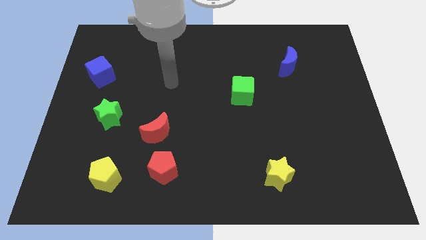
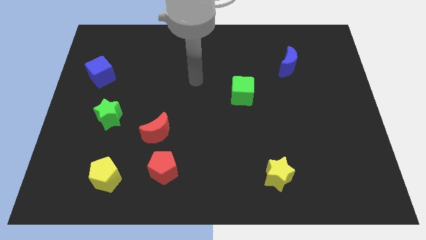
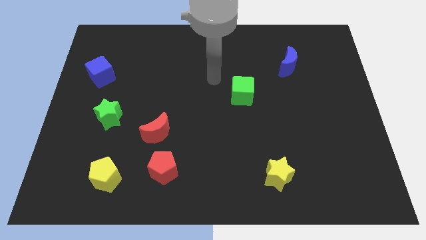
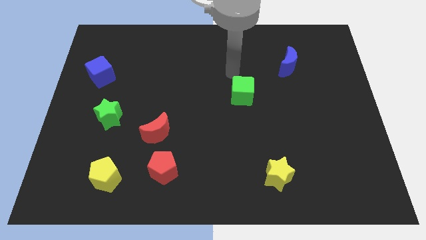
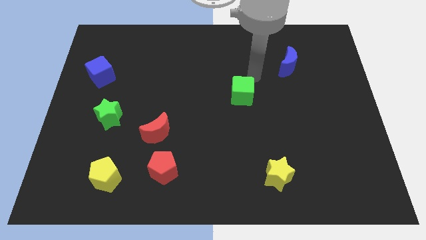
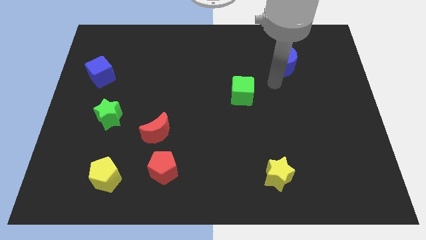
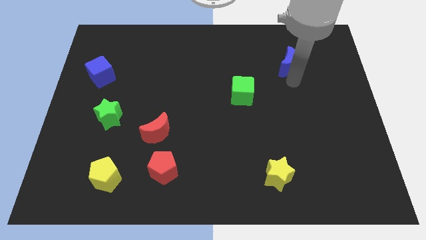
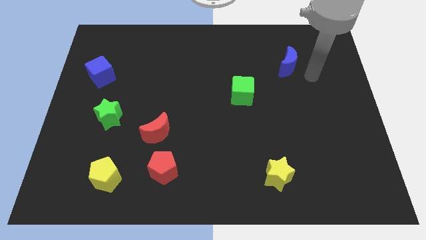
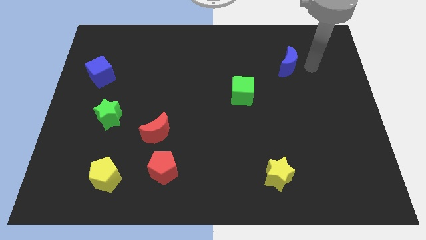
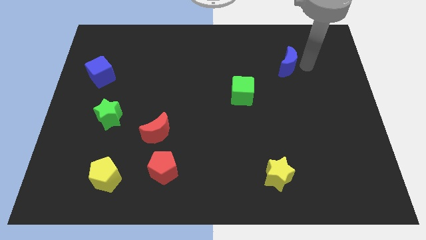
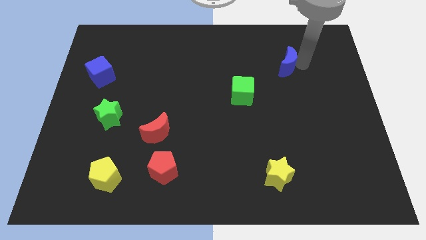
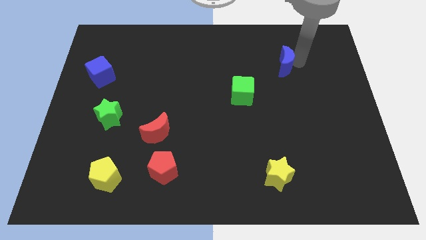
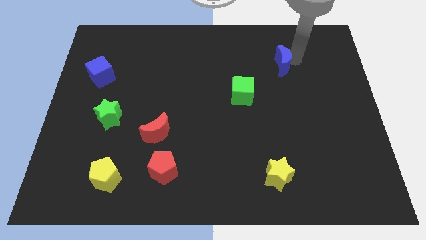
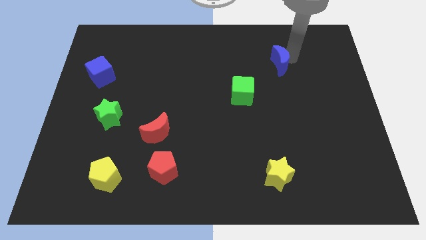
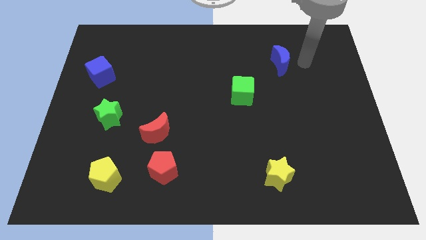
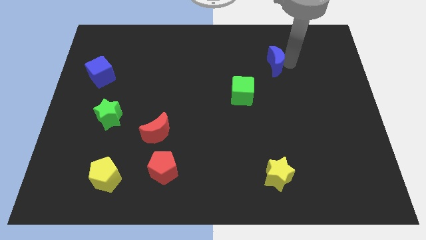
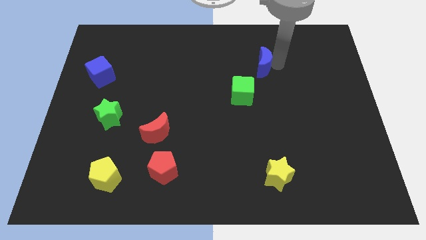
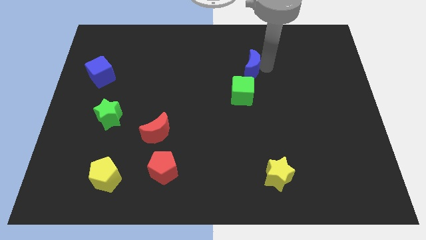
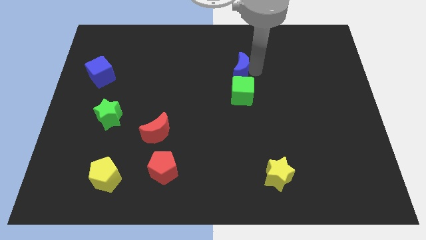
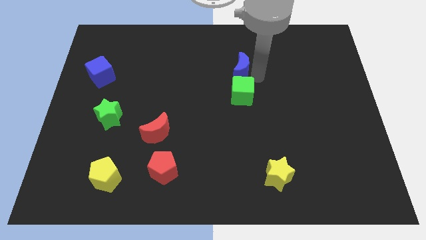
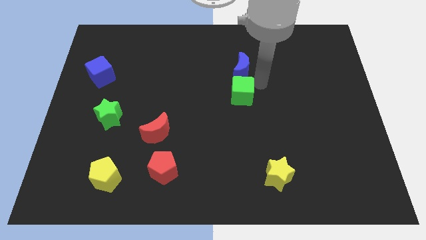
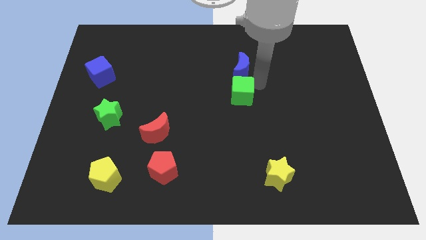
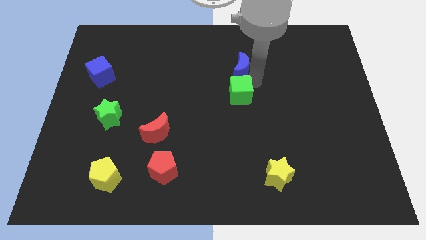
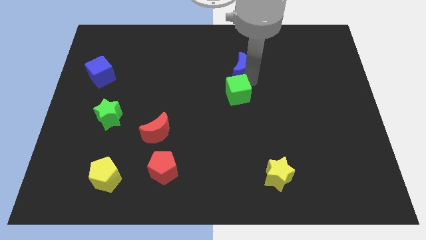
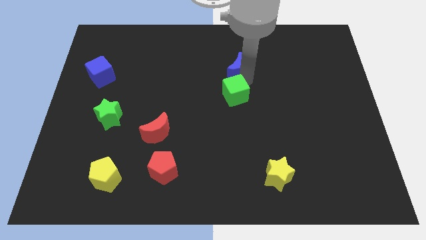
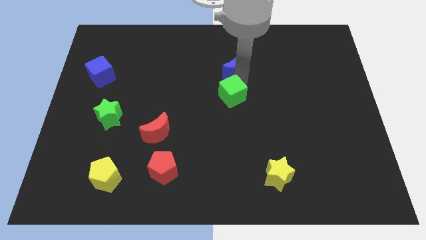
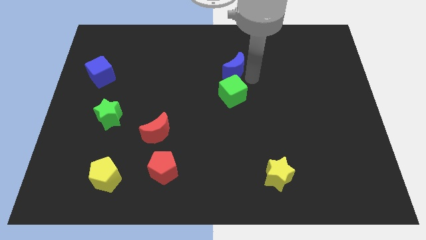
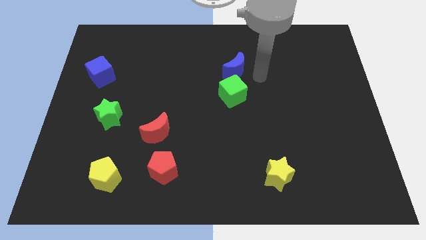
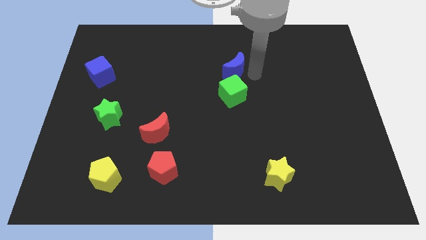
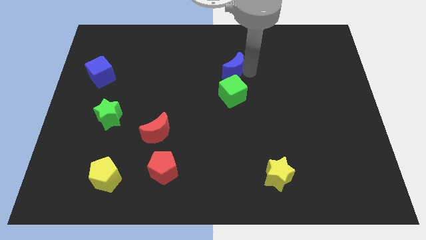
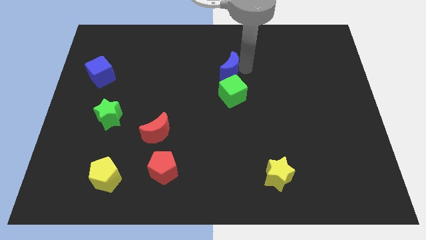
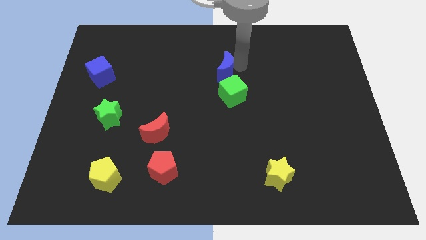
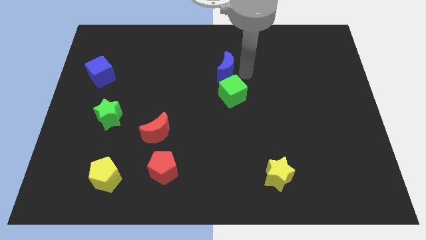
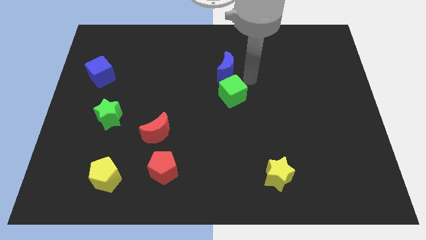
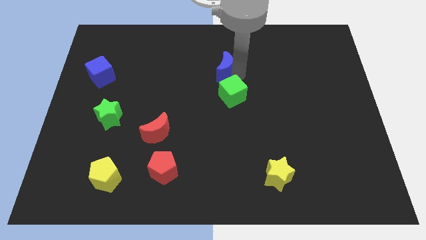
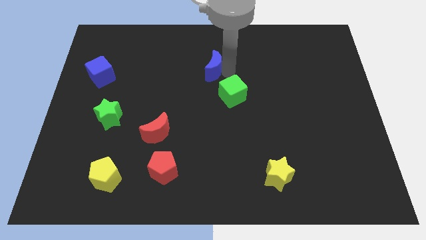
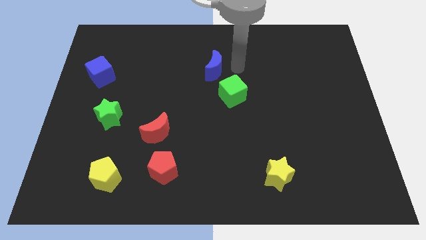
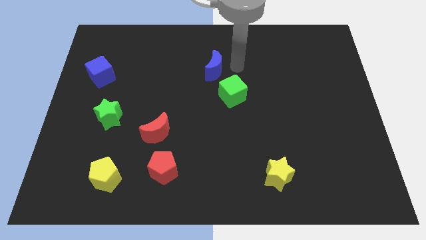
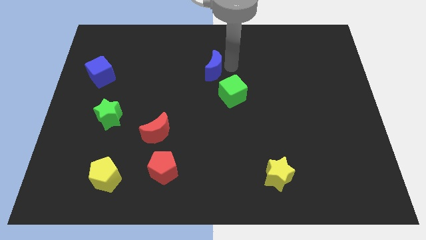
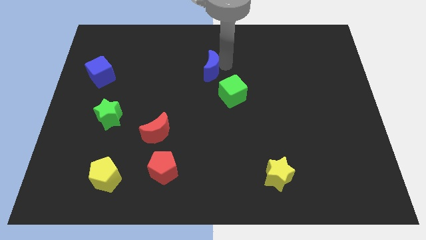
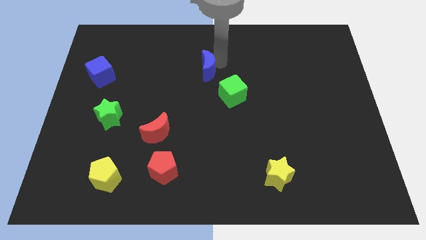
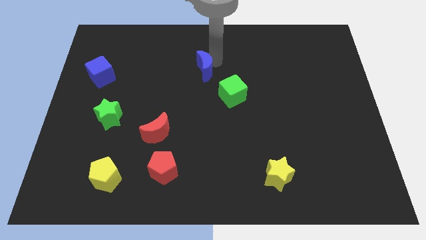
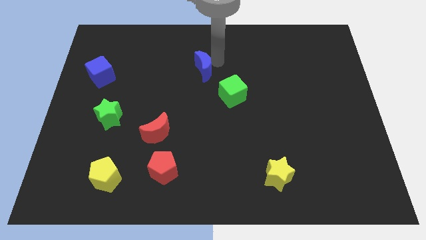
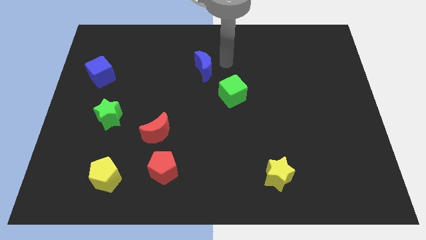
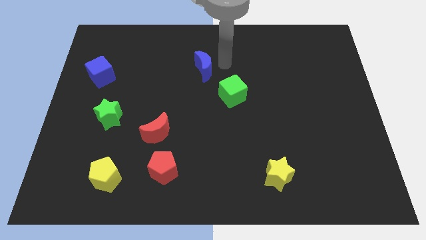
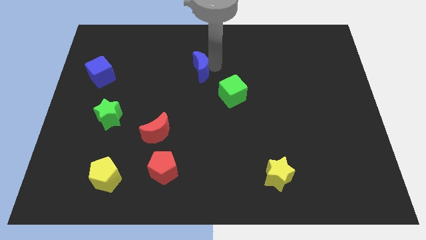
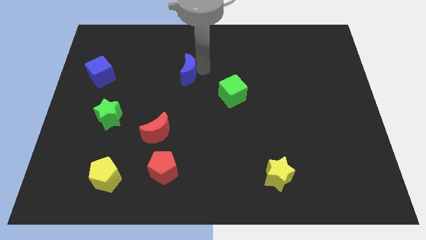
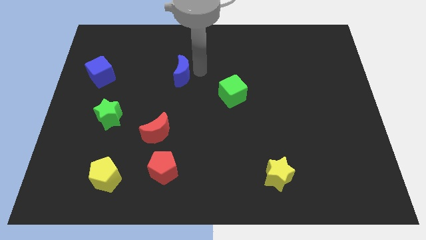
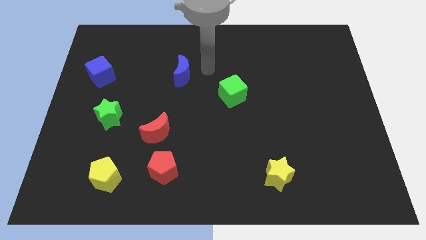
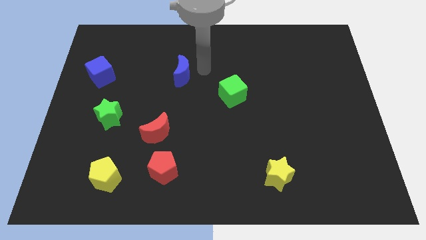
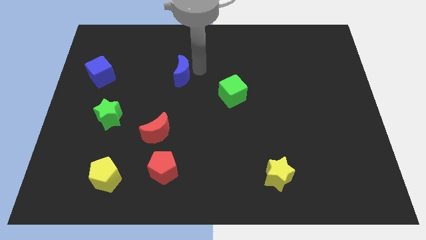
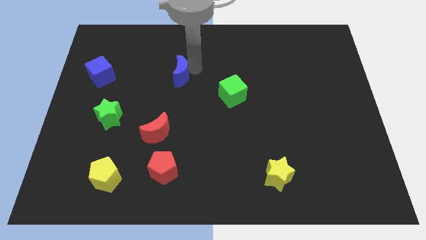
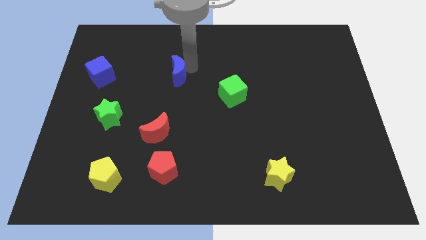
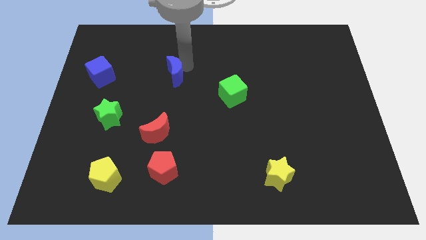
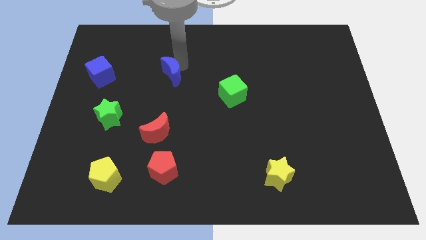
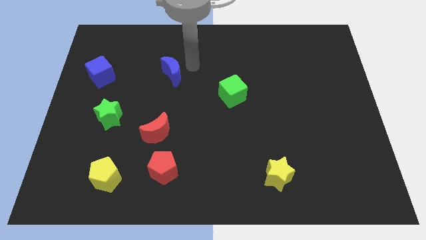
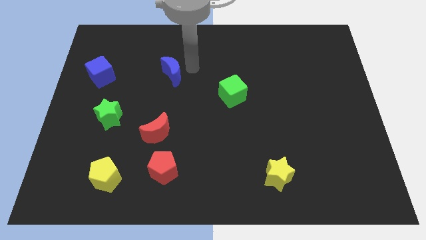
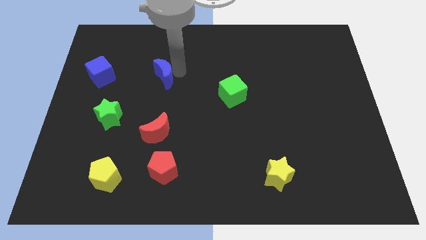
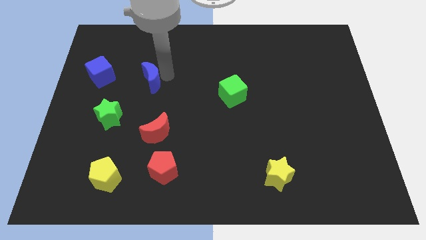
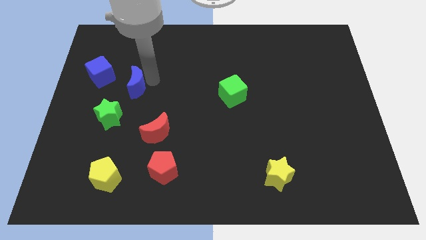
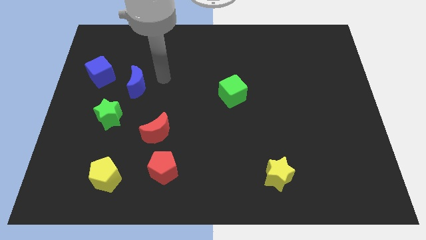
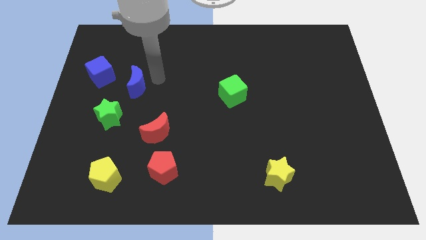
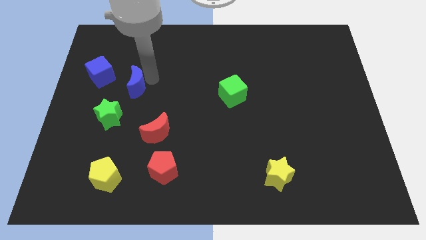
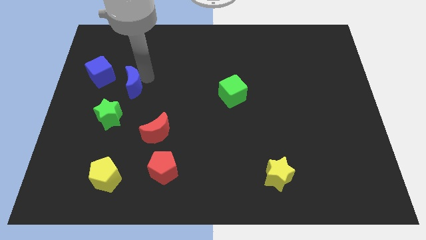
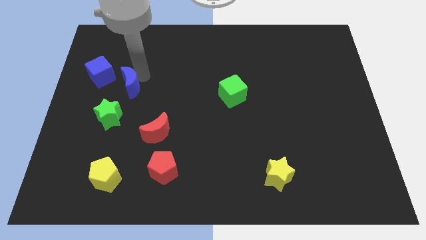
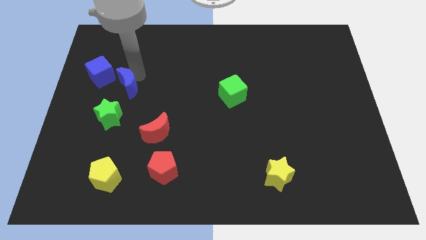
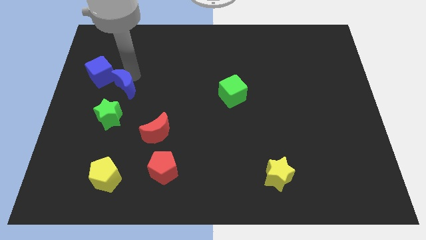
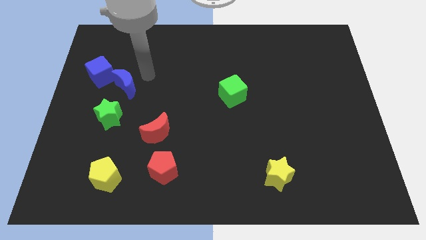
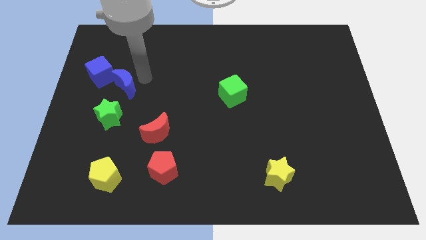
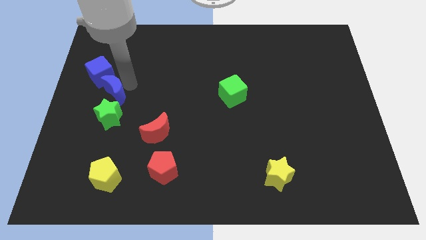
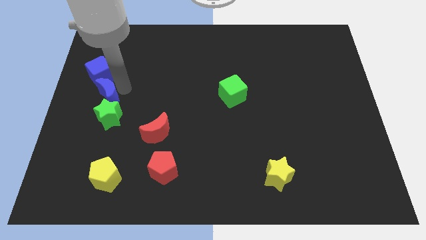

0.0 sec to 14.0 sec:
slide the blue moon diagonally up and to the left of the green star
